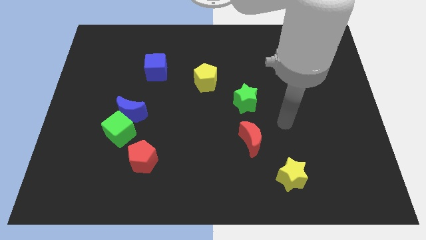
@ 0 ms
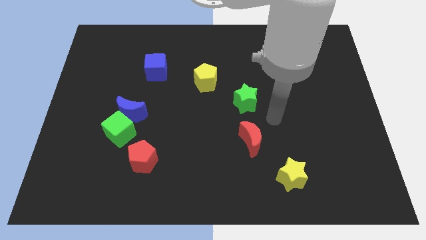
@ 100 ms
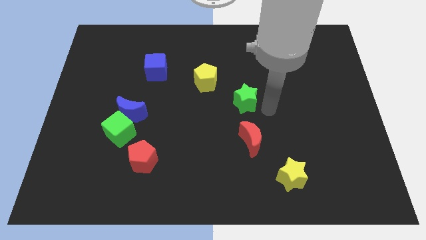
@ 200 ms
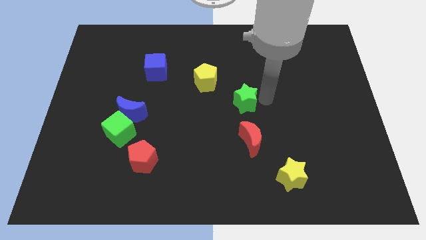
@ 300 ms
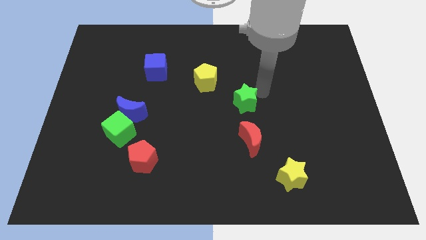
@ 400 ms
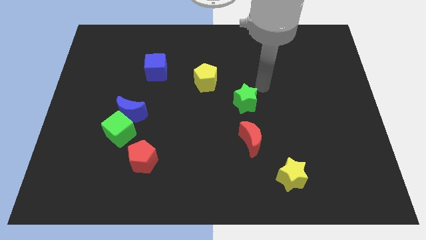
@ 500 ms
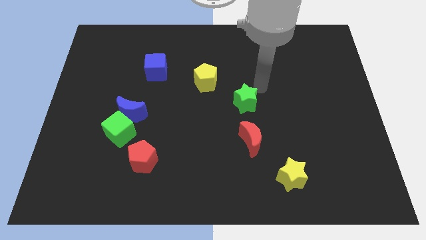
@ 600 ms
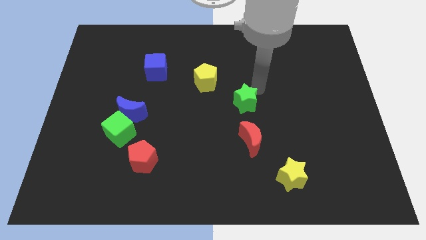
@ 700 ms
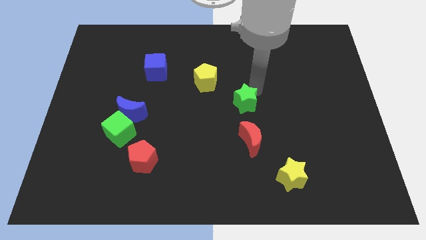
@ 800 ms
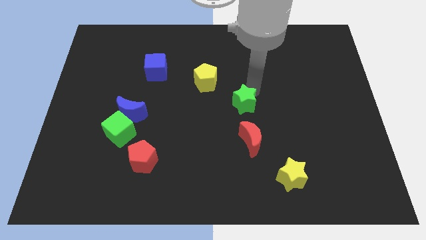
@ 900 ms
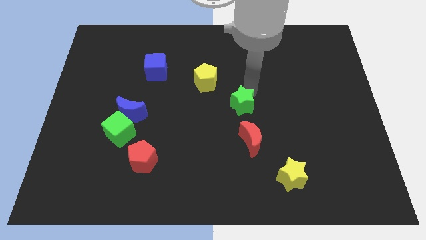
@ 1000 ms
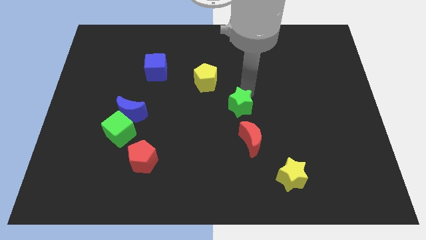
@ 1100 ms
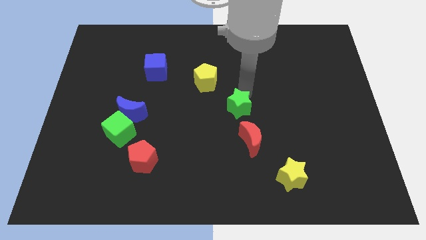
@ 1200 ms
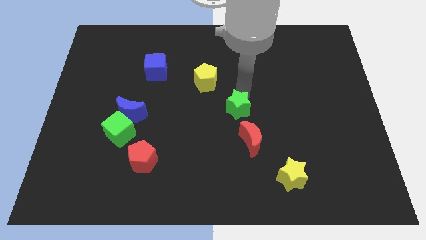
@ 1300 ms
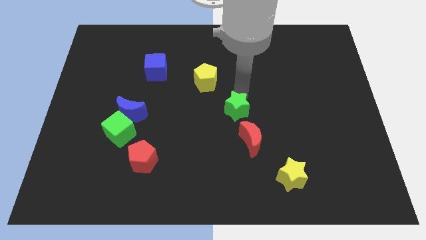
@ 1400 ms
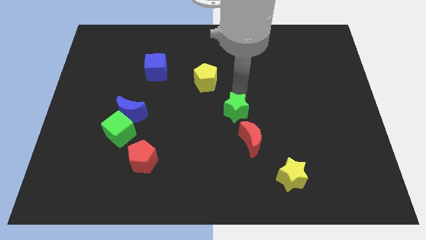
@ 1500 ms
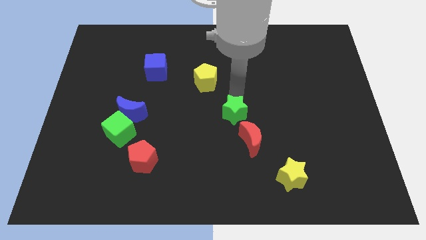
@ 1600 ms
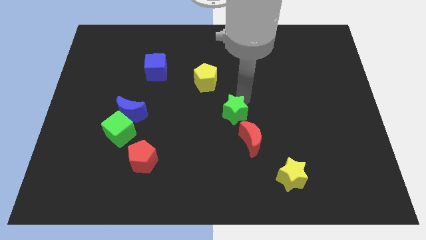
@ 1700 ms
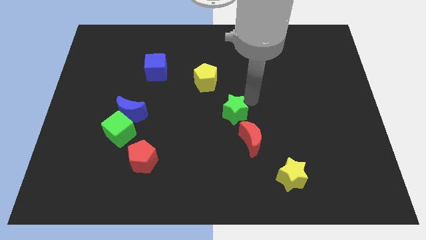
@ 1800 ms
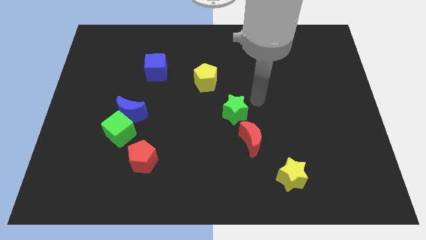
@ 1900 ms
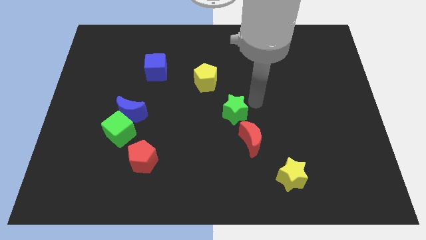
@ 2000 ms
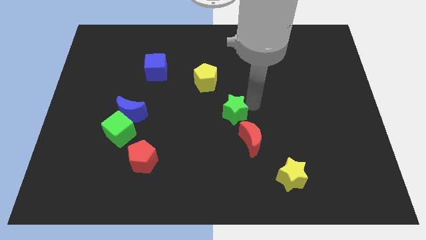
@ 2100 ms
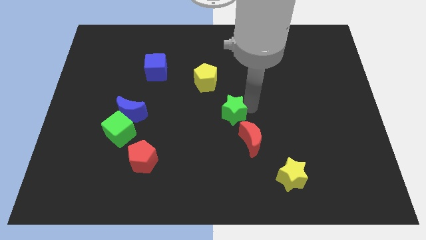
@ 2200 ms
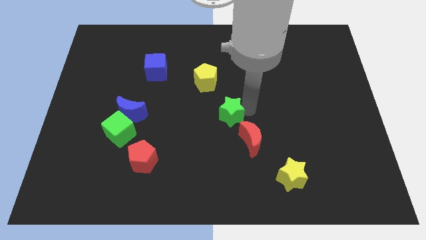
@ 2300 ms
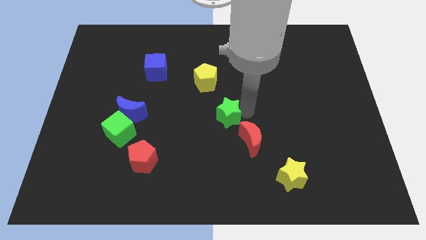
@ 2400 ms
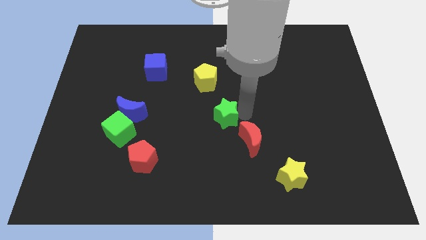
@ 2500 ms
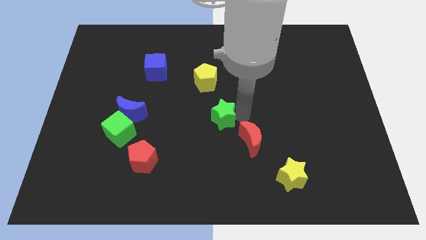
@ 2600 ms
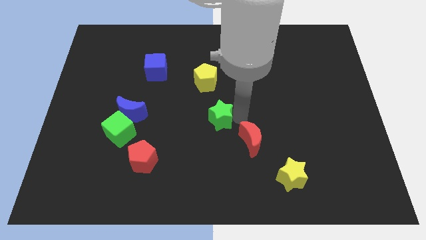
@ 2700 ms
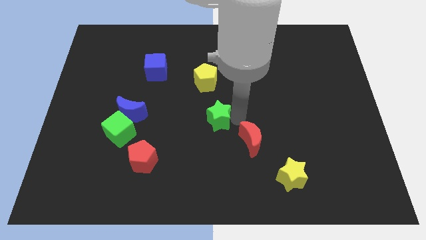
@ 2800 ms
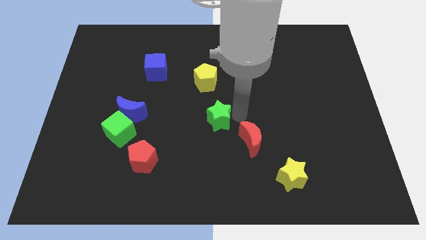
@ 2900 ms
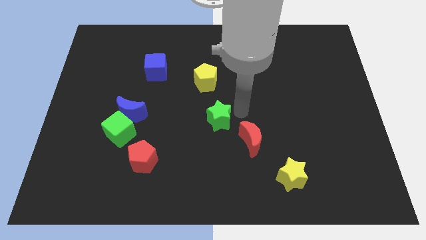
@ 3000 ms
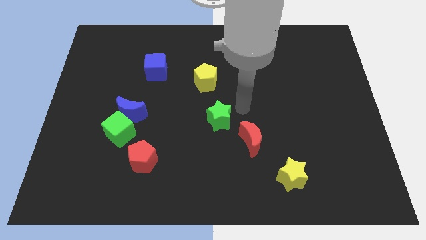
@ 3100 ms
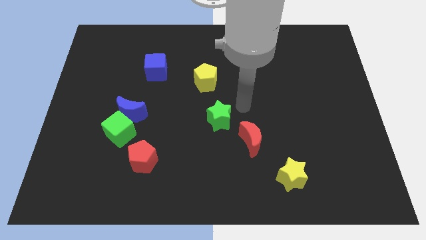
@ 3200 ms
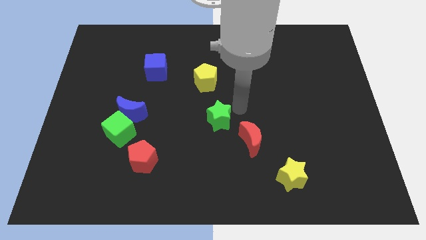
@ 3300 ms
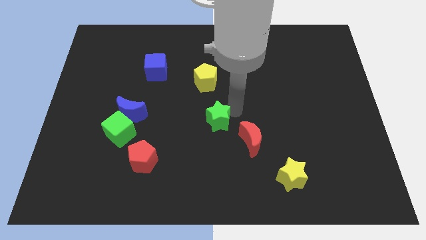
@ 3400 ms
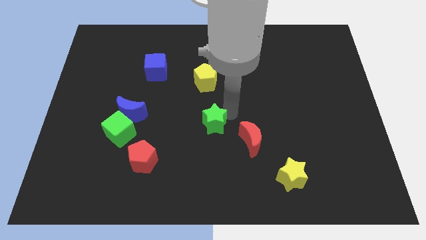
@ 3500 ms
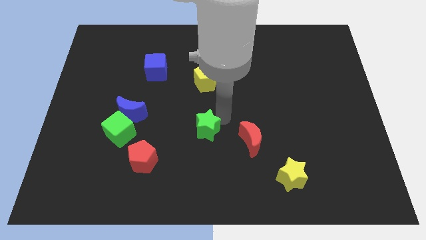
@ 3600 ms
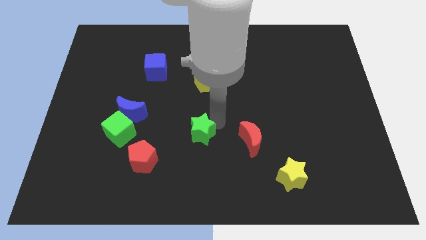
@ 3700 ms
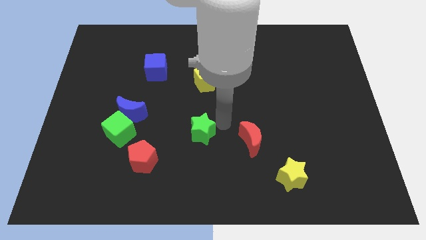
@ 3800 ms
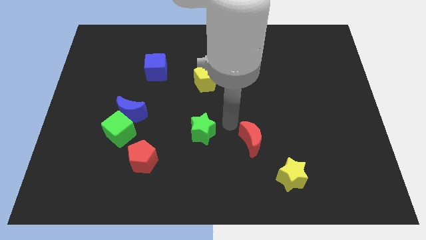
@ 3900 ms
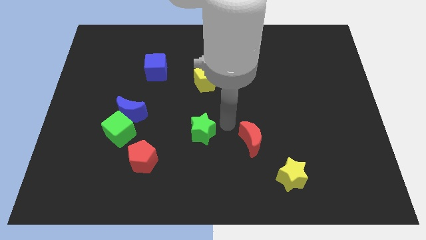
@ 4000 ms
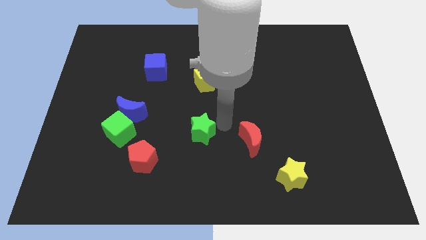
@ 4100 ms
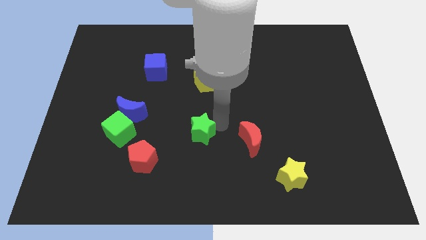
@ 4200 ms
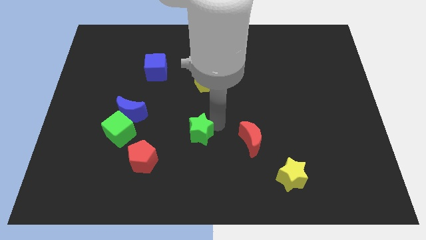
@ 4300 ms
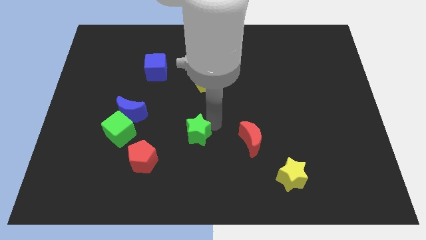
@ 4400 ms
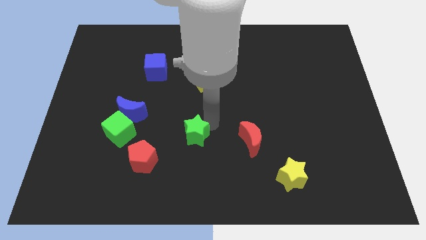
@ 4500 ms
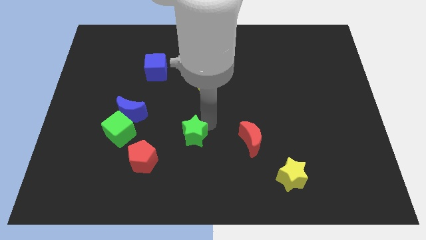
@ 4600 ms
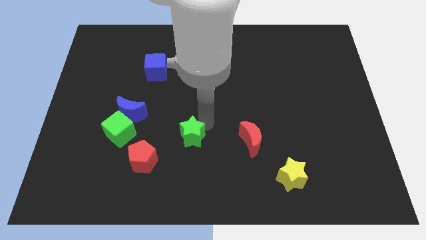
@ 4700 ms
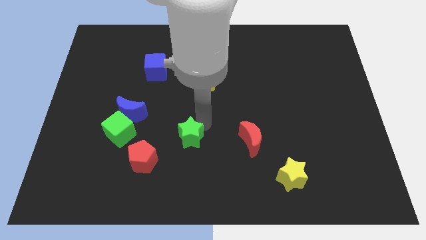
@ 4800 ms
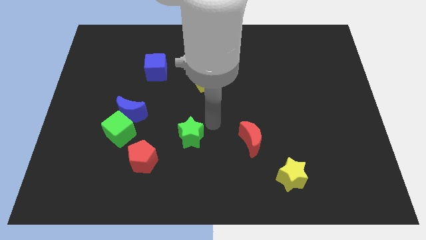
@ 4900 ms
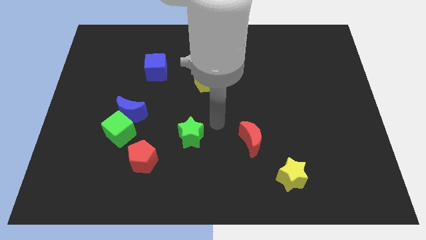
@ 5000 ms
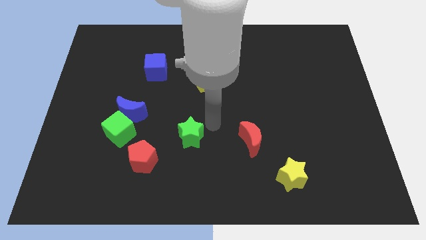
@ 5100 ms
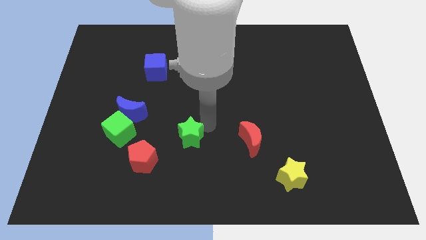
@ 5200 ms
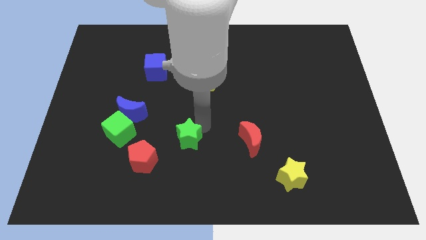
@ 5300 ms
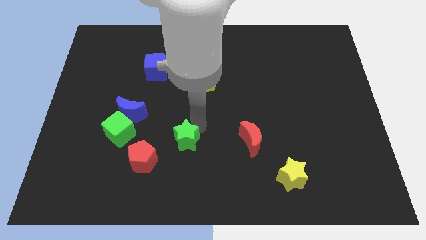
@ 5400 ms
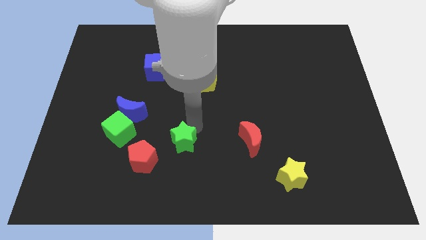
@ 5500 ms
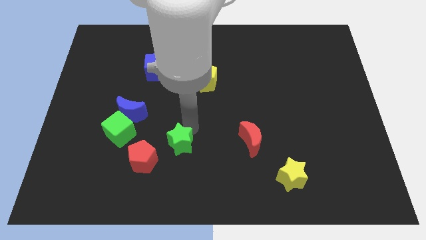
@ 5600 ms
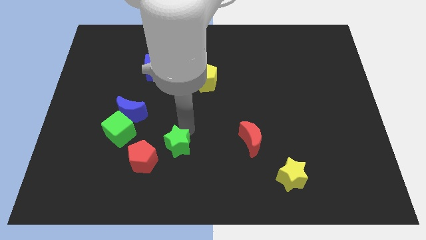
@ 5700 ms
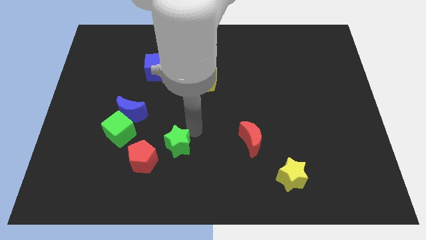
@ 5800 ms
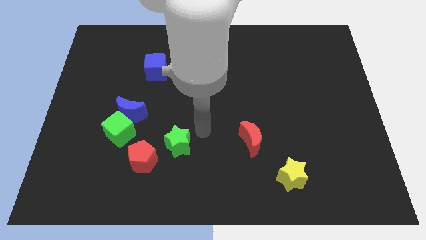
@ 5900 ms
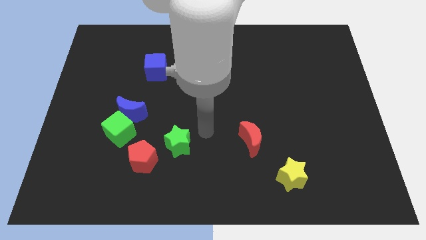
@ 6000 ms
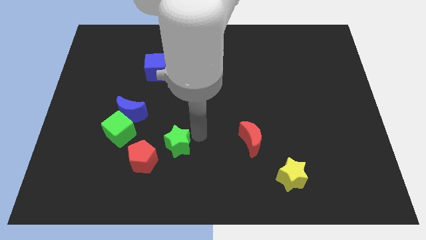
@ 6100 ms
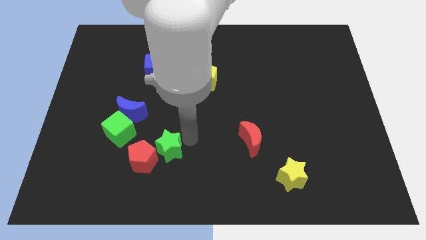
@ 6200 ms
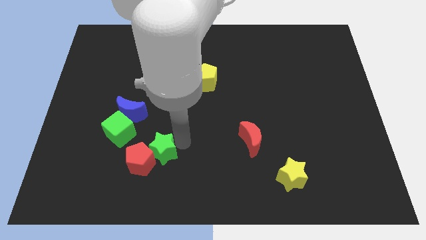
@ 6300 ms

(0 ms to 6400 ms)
push the green star next to the red pentagon

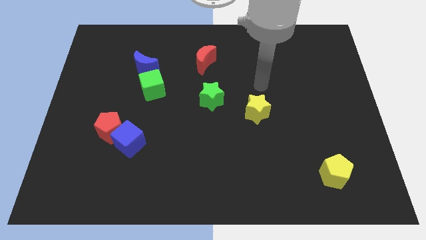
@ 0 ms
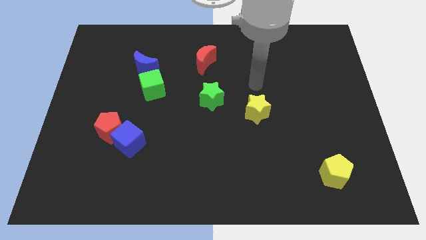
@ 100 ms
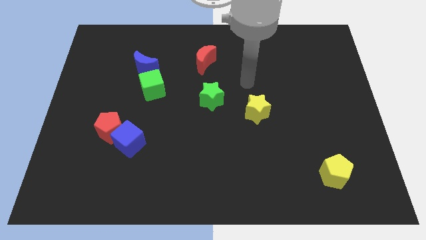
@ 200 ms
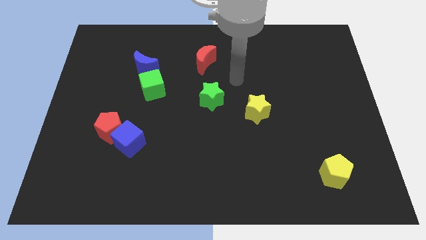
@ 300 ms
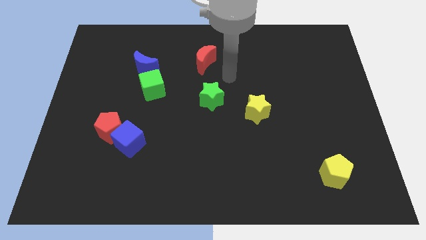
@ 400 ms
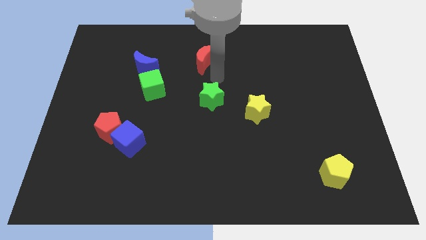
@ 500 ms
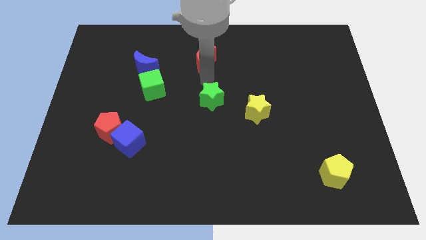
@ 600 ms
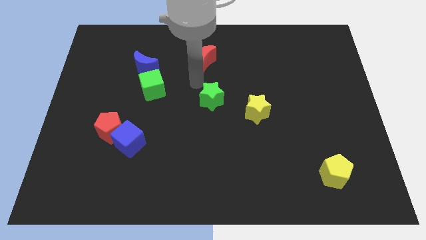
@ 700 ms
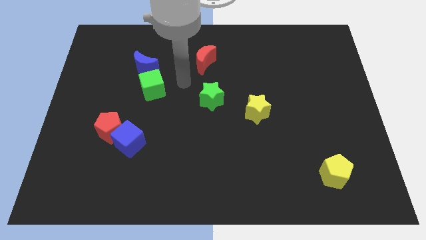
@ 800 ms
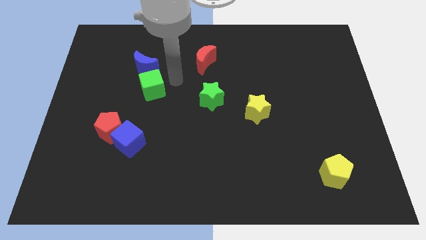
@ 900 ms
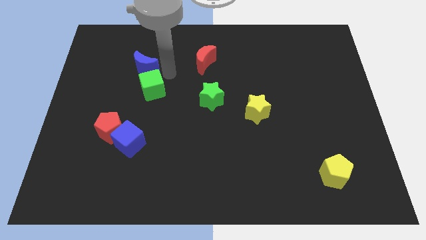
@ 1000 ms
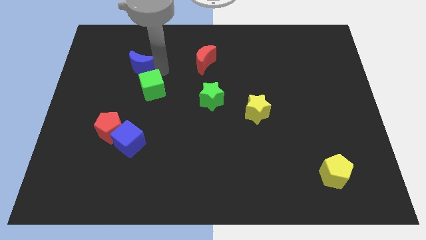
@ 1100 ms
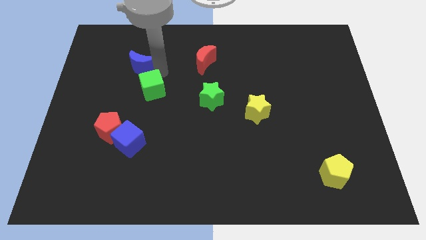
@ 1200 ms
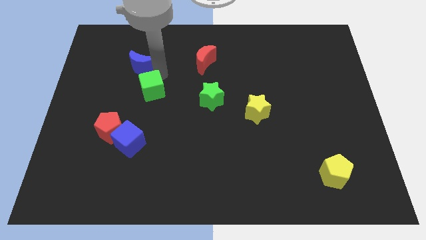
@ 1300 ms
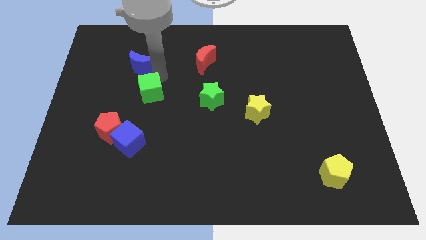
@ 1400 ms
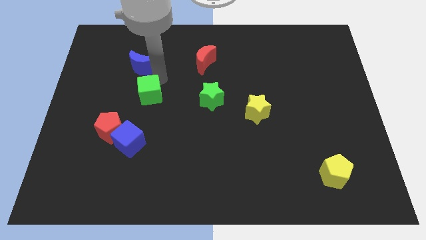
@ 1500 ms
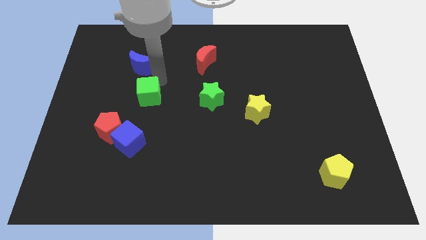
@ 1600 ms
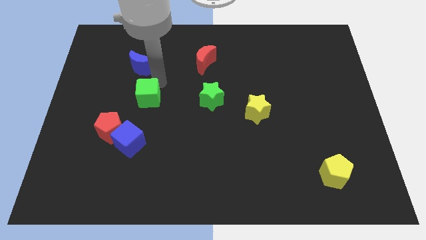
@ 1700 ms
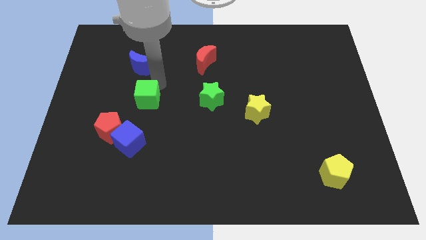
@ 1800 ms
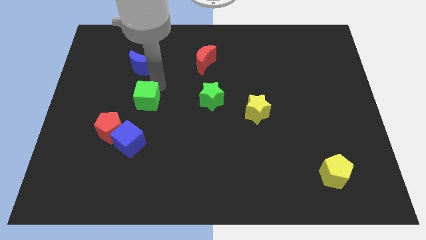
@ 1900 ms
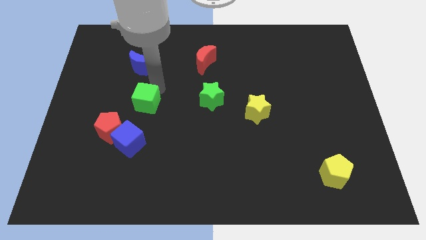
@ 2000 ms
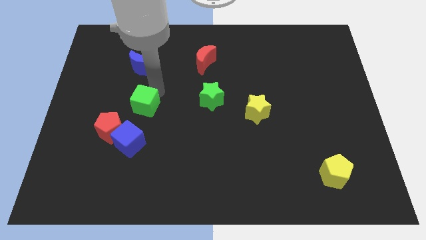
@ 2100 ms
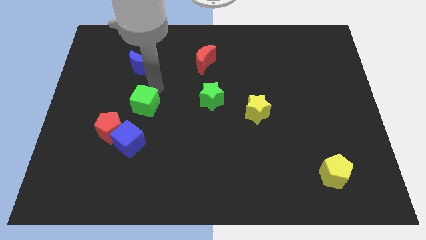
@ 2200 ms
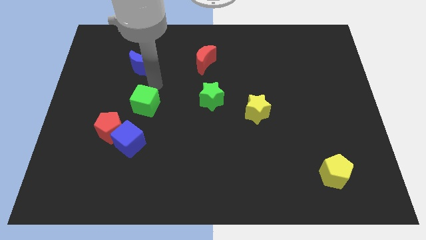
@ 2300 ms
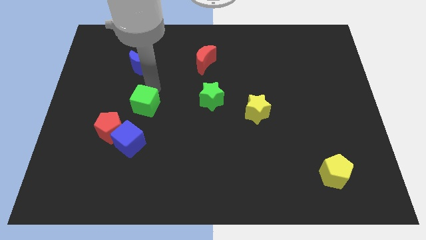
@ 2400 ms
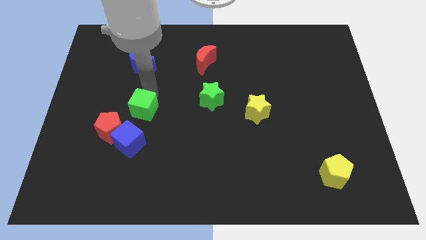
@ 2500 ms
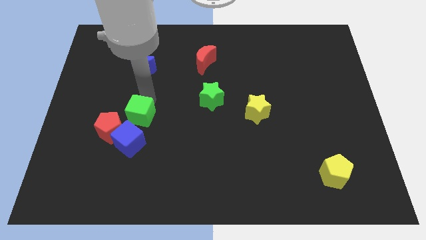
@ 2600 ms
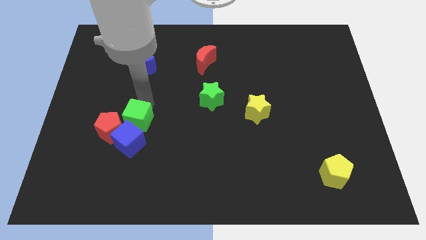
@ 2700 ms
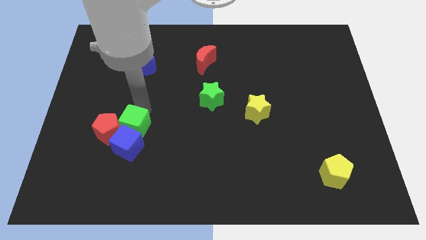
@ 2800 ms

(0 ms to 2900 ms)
slide the green cube next to the blue cube
